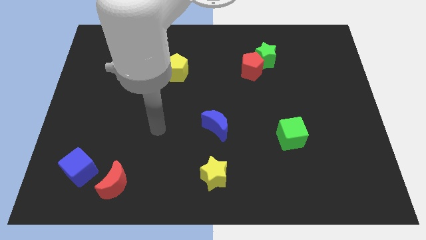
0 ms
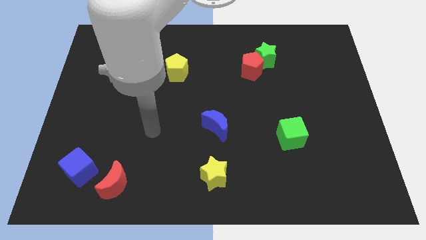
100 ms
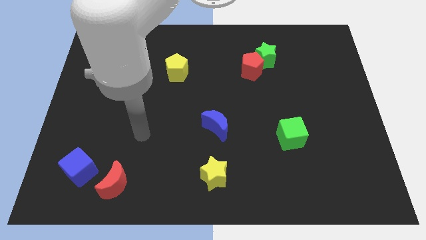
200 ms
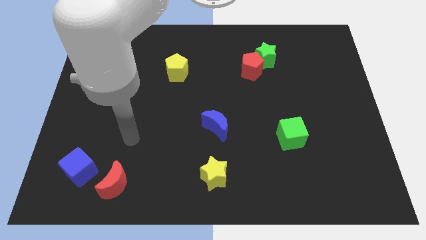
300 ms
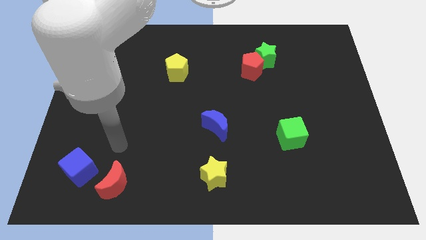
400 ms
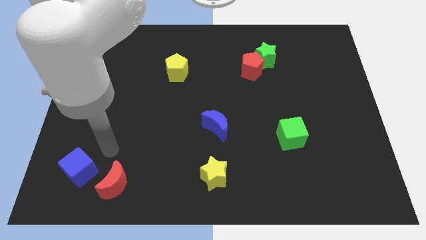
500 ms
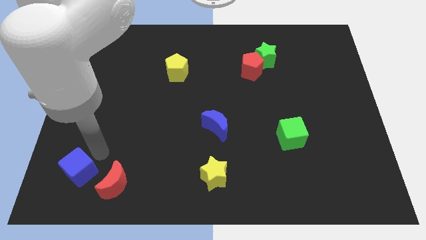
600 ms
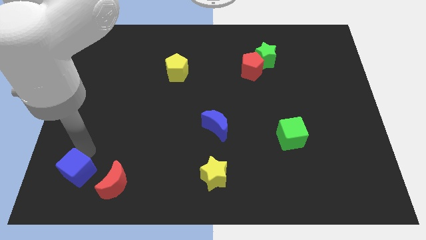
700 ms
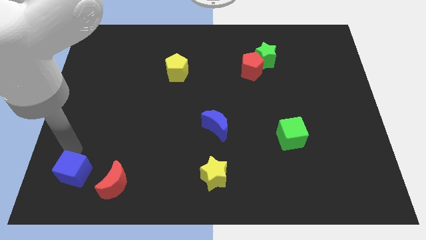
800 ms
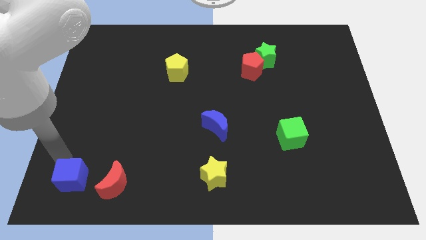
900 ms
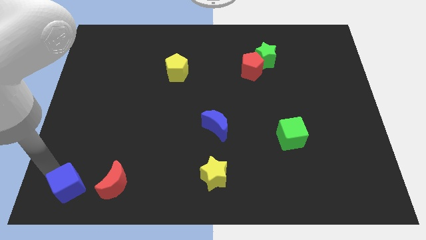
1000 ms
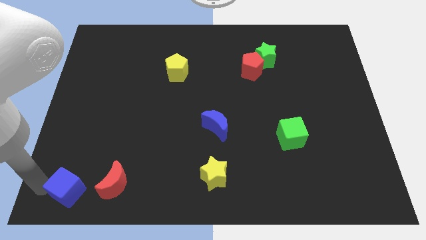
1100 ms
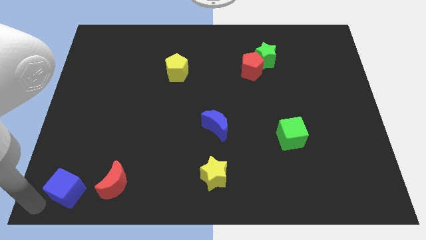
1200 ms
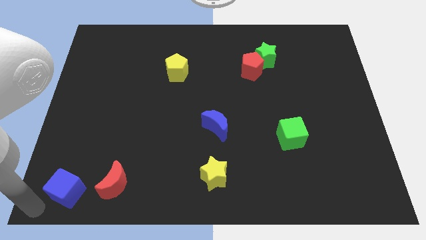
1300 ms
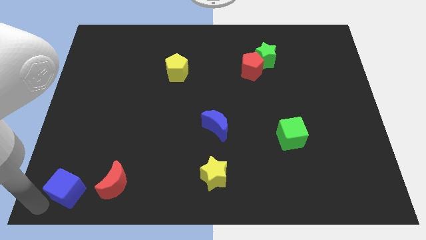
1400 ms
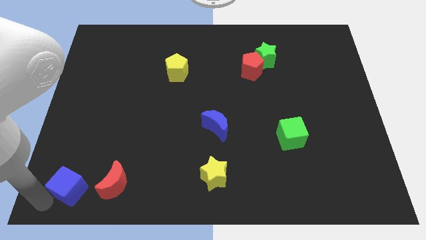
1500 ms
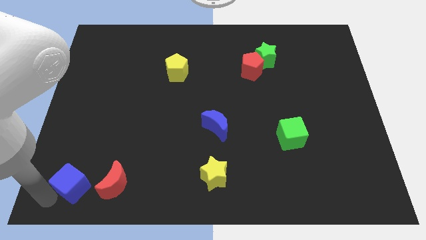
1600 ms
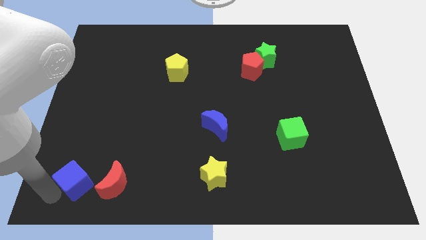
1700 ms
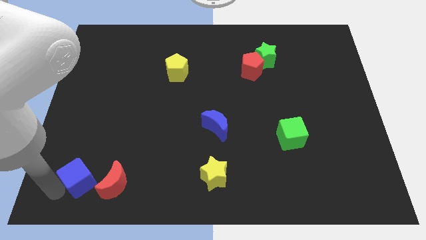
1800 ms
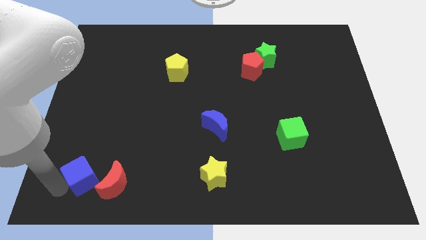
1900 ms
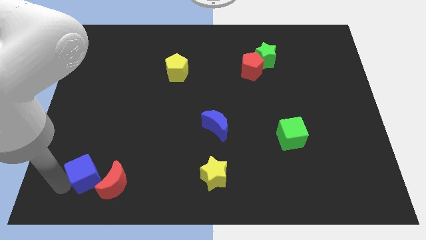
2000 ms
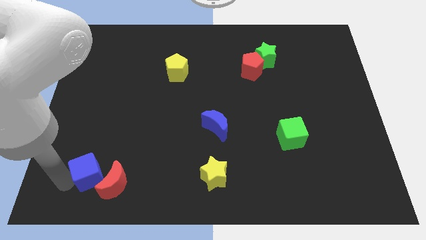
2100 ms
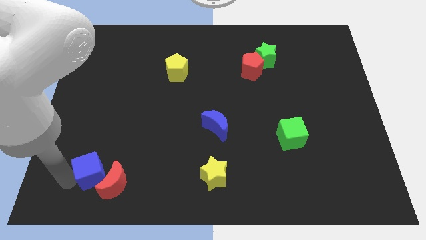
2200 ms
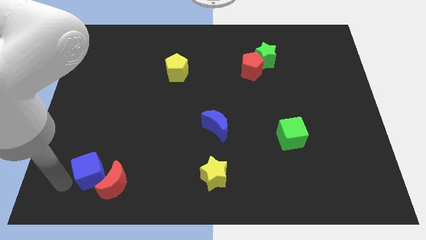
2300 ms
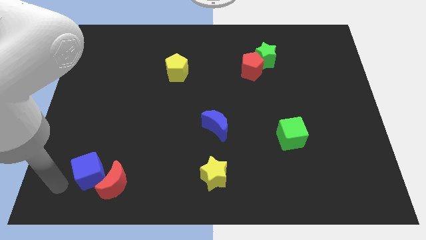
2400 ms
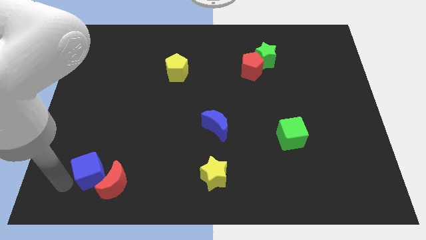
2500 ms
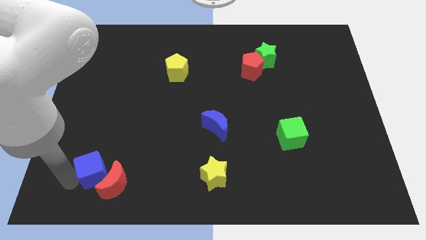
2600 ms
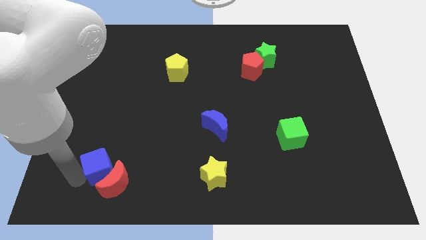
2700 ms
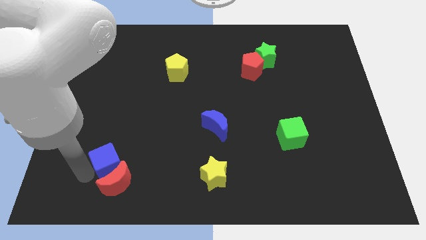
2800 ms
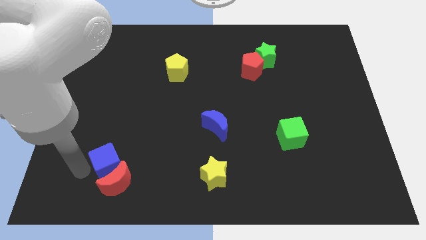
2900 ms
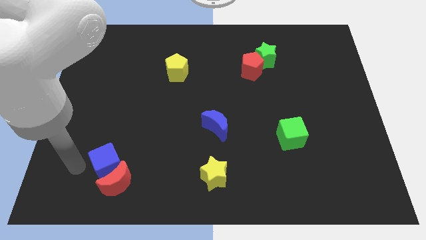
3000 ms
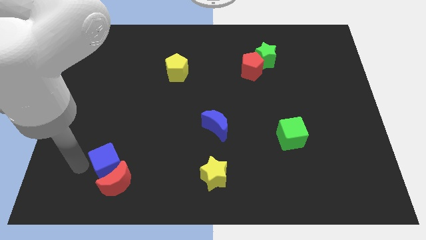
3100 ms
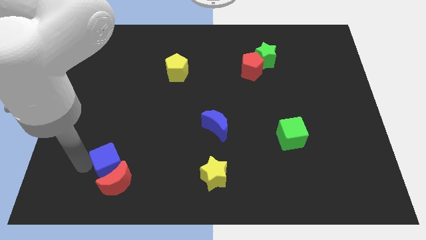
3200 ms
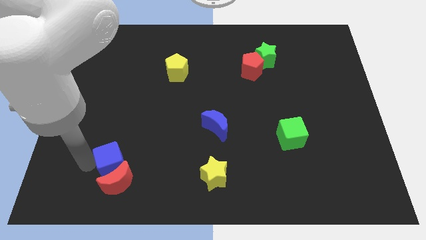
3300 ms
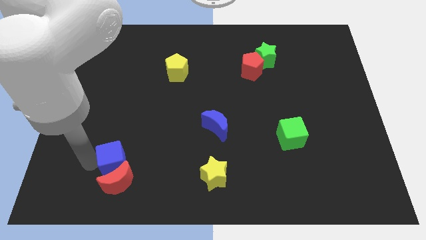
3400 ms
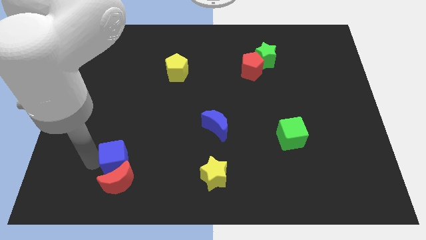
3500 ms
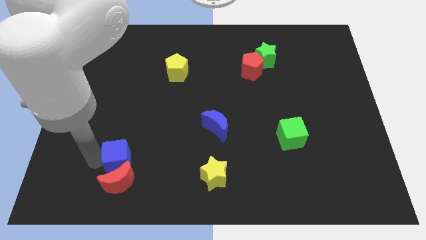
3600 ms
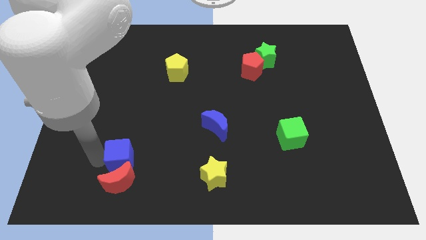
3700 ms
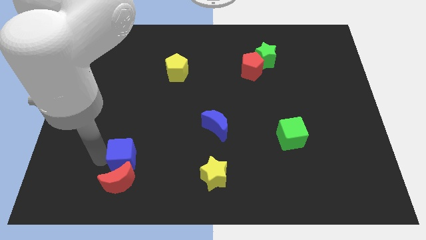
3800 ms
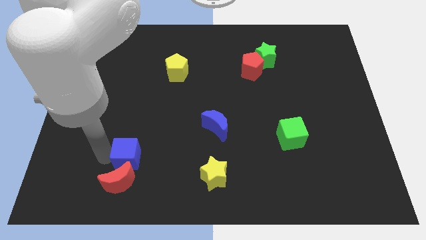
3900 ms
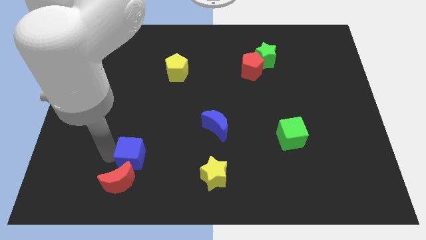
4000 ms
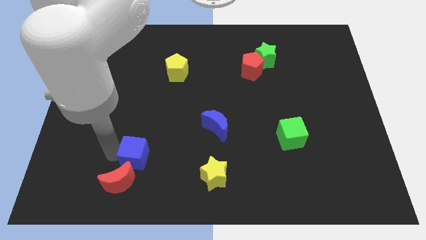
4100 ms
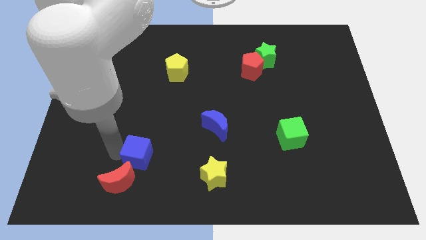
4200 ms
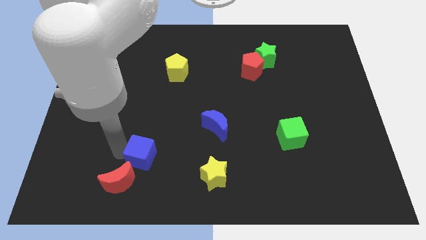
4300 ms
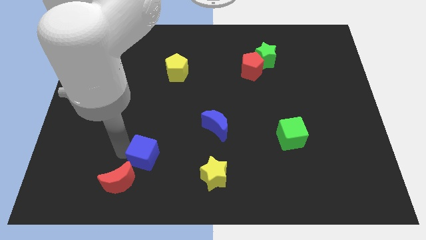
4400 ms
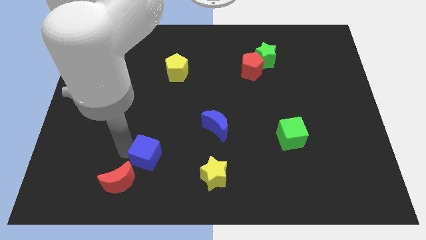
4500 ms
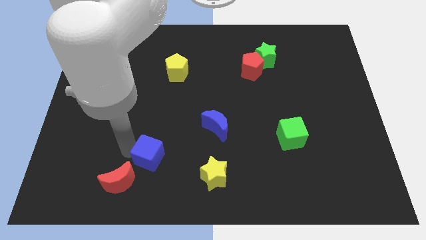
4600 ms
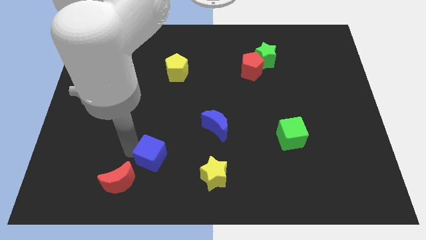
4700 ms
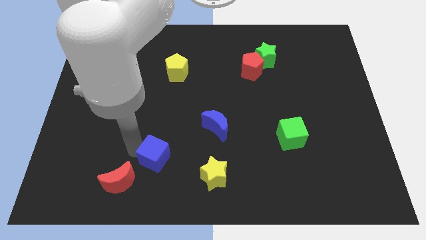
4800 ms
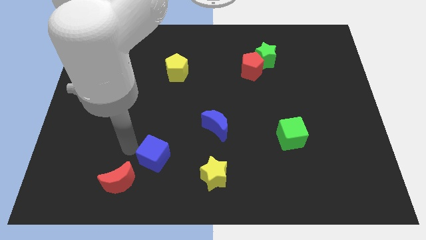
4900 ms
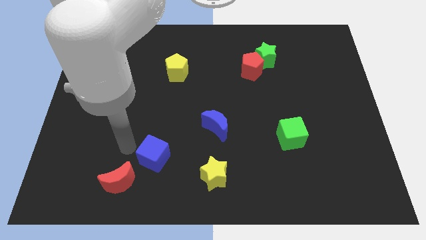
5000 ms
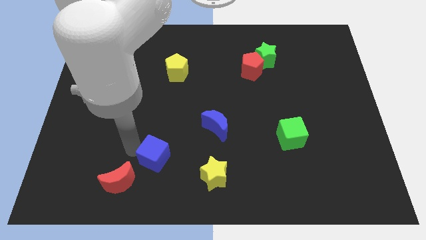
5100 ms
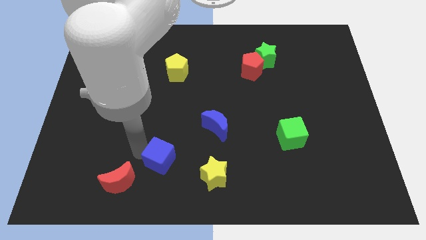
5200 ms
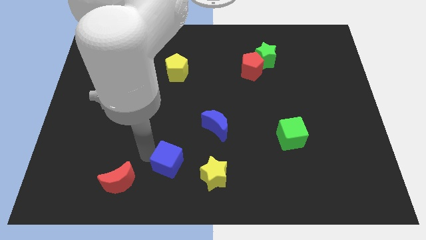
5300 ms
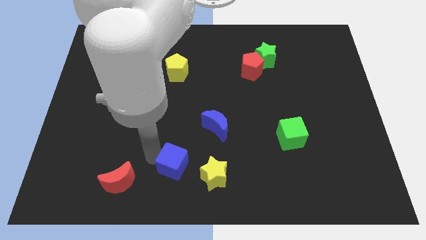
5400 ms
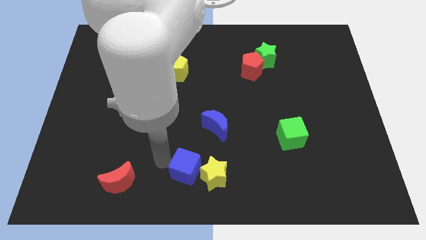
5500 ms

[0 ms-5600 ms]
push the blue cube towards the yellow star

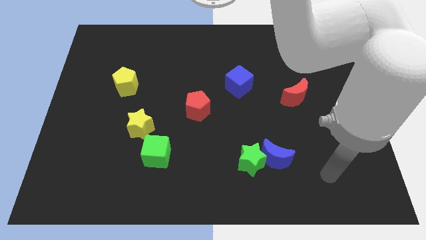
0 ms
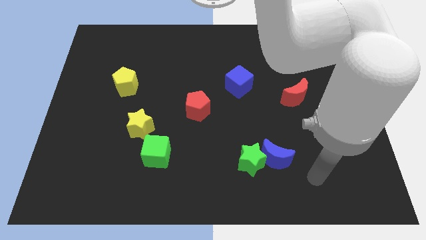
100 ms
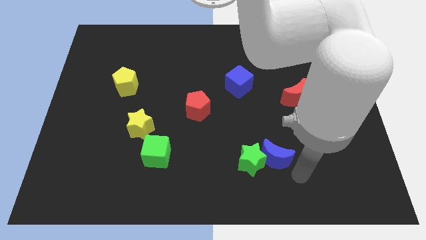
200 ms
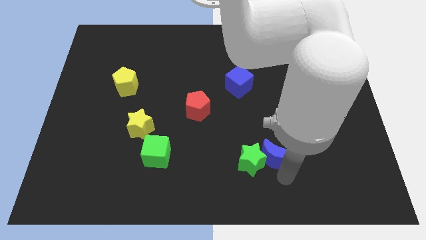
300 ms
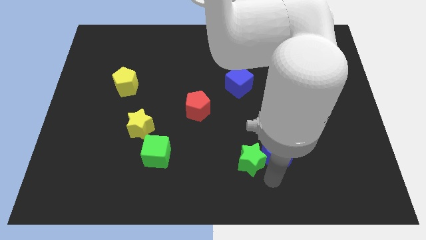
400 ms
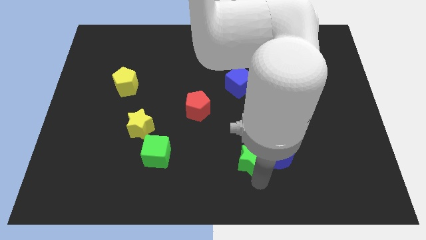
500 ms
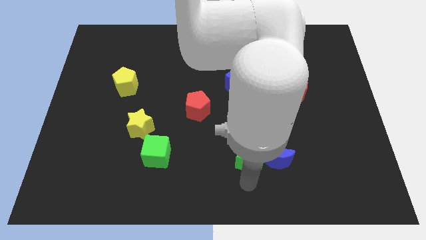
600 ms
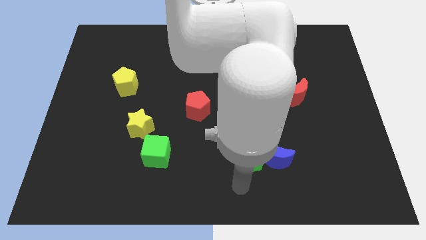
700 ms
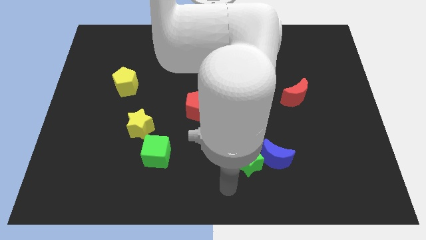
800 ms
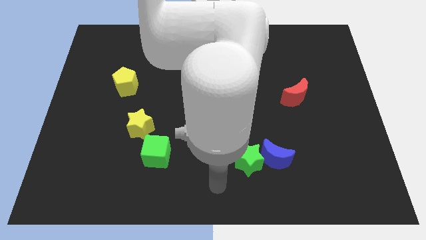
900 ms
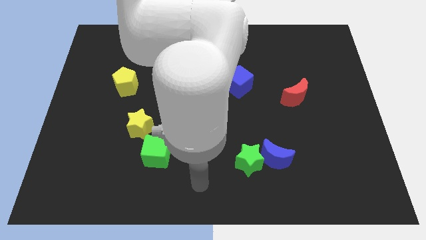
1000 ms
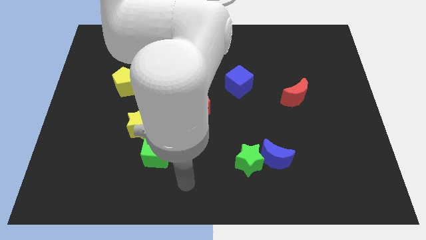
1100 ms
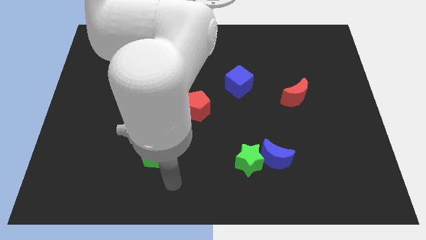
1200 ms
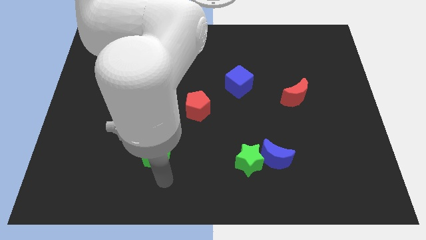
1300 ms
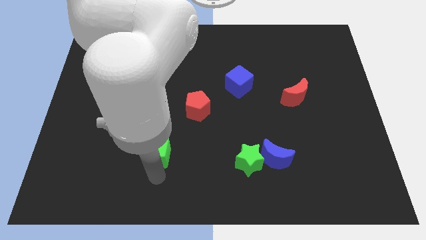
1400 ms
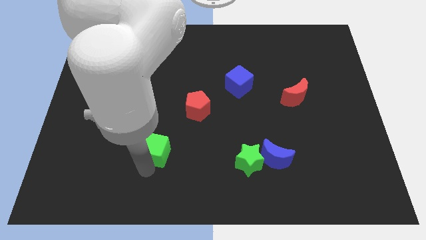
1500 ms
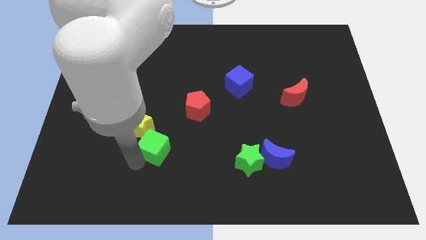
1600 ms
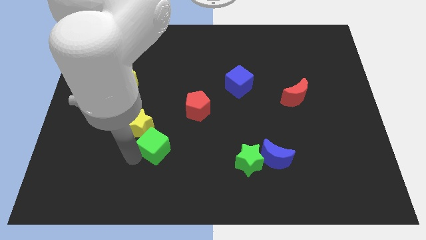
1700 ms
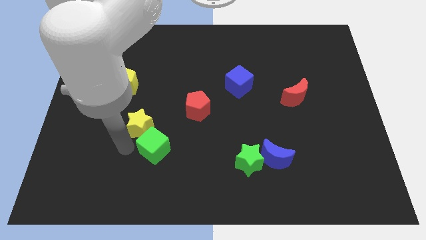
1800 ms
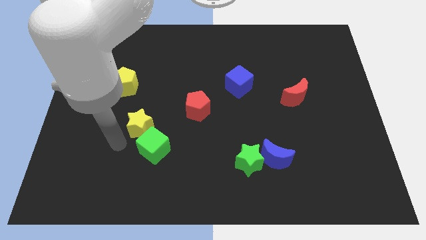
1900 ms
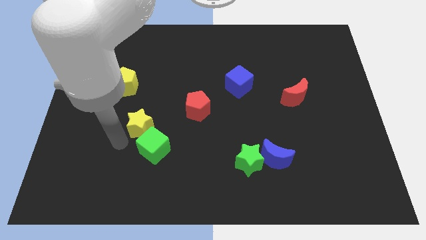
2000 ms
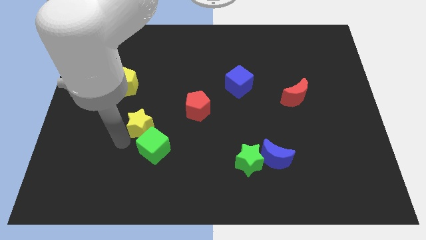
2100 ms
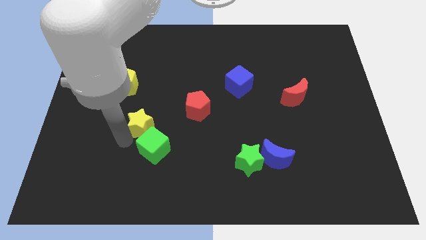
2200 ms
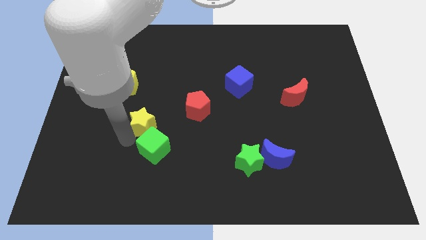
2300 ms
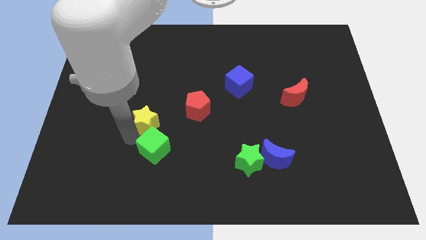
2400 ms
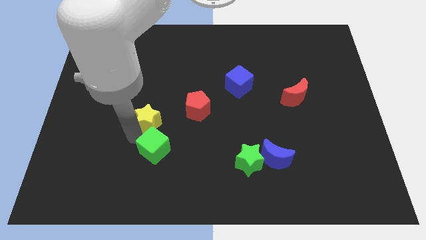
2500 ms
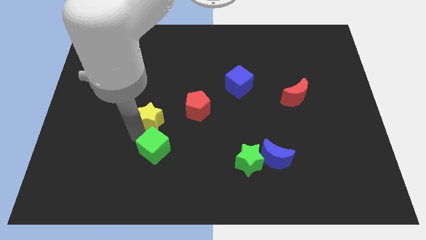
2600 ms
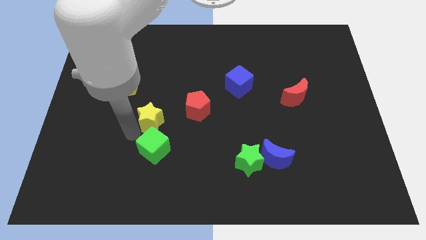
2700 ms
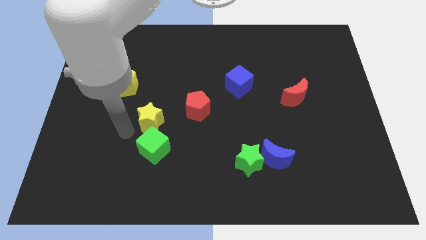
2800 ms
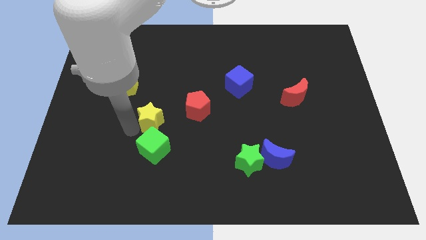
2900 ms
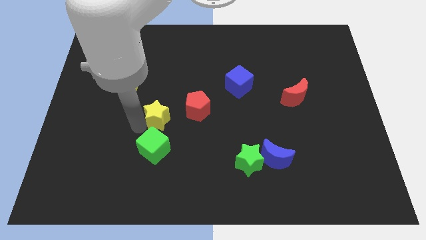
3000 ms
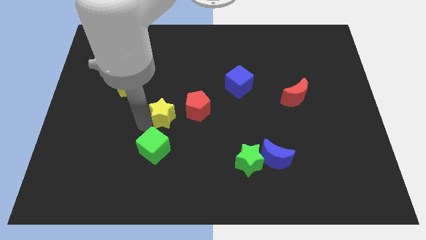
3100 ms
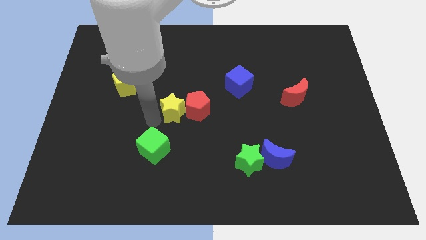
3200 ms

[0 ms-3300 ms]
put the yellow star next to the red pentagon
